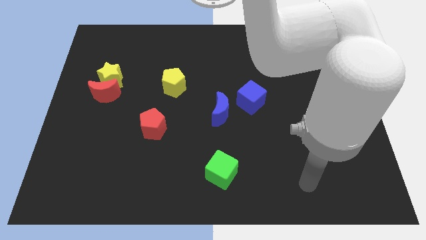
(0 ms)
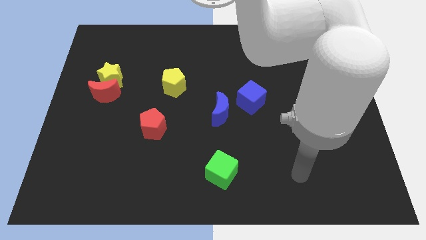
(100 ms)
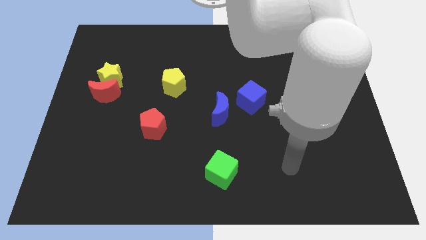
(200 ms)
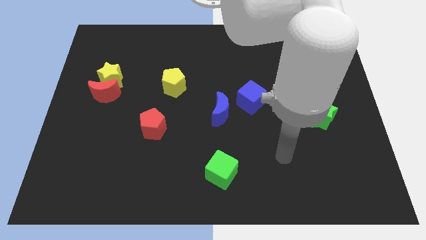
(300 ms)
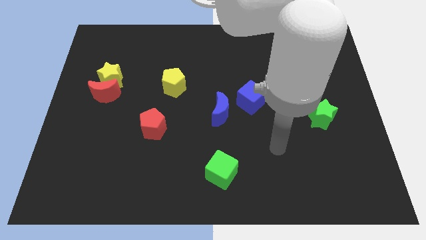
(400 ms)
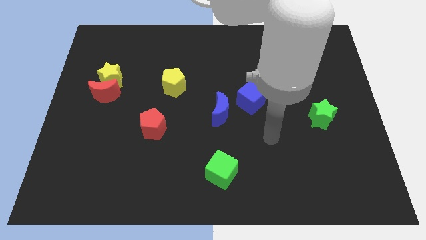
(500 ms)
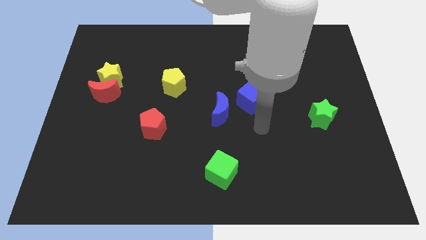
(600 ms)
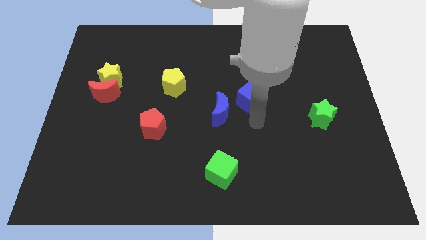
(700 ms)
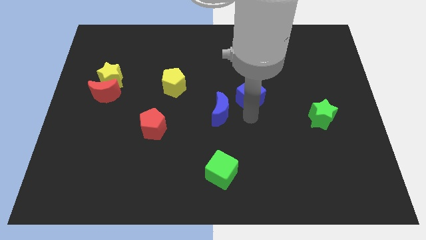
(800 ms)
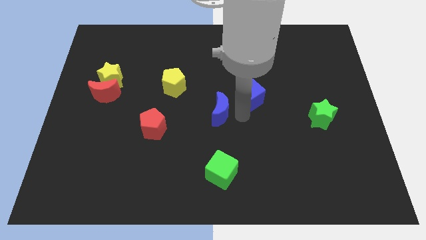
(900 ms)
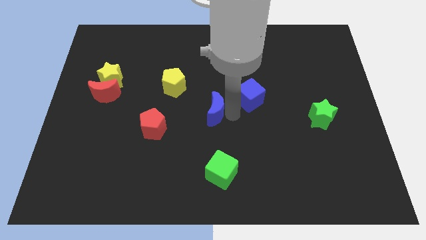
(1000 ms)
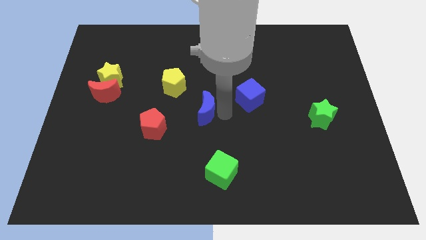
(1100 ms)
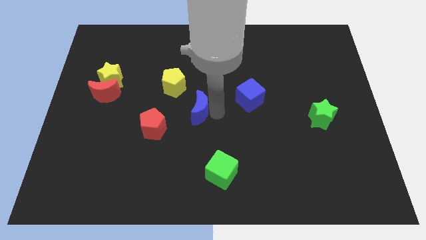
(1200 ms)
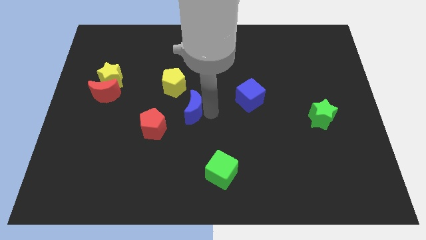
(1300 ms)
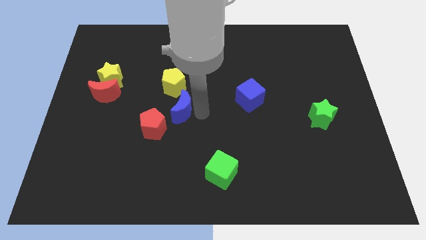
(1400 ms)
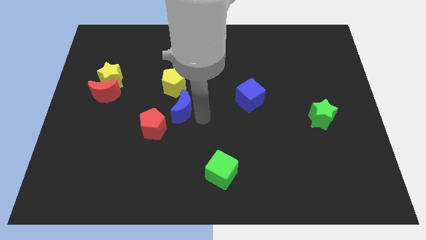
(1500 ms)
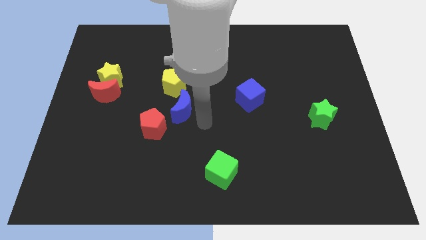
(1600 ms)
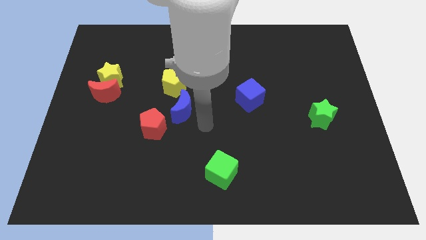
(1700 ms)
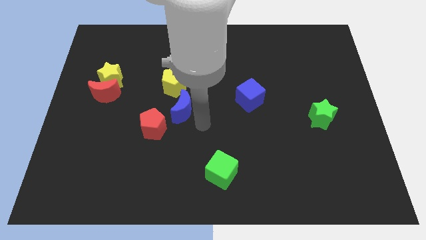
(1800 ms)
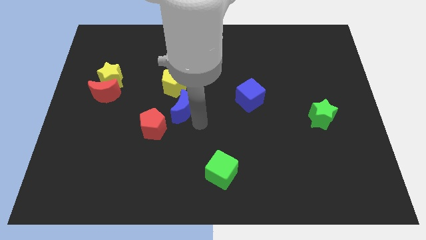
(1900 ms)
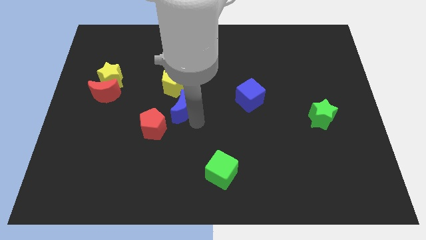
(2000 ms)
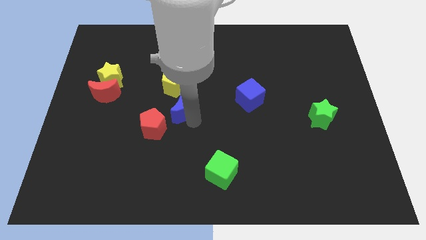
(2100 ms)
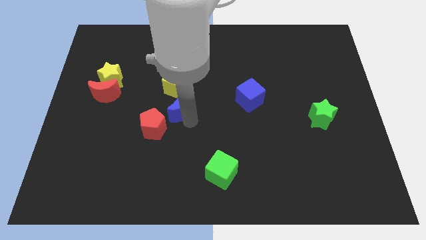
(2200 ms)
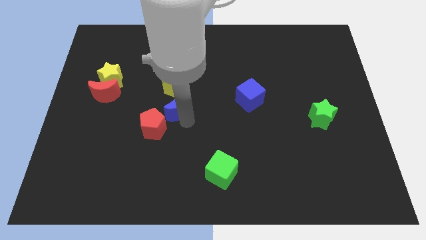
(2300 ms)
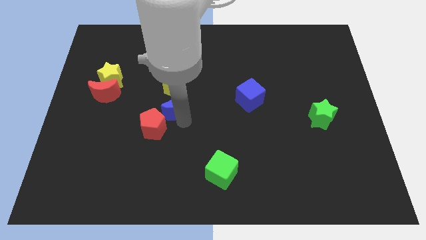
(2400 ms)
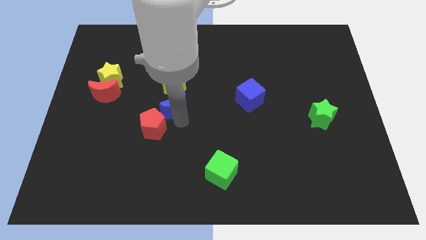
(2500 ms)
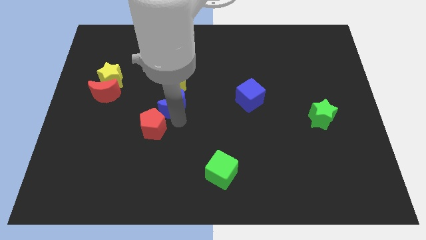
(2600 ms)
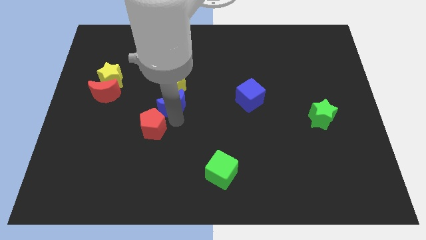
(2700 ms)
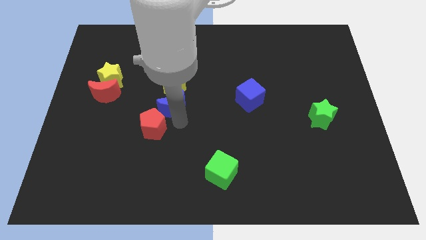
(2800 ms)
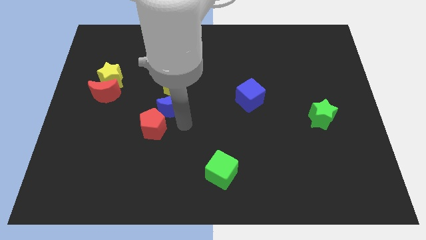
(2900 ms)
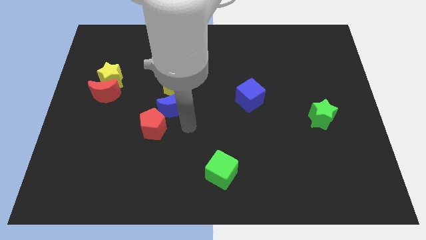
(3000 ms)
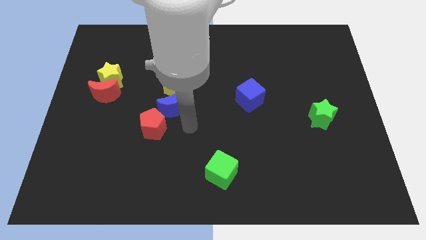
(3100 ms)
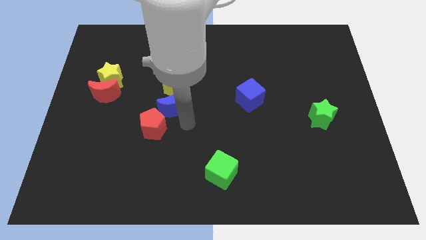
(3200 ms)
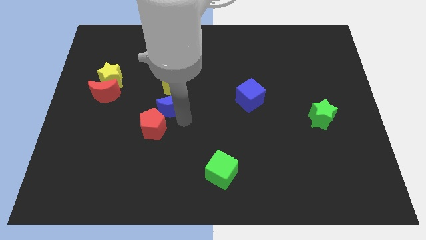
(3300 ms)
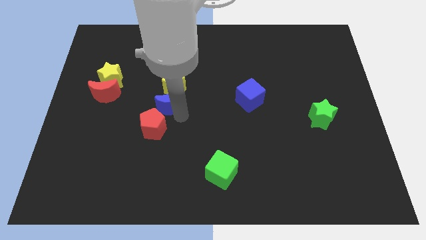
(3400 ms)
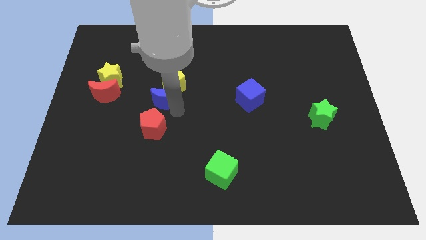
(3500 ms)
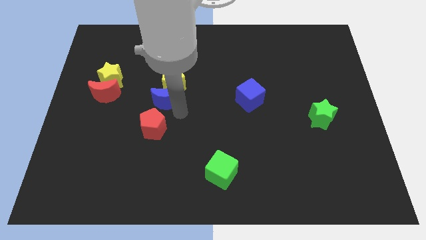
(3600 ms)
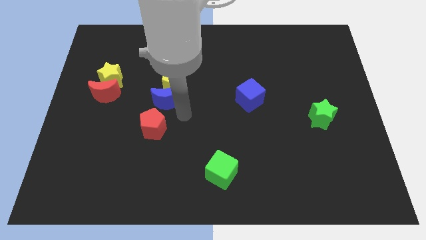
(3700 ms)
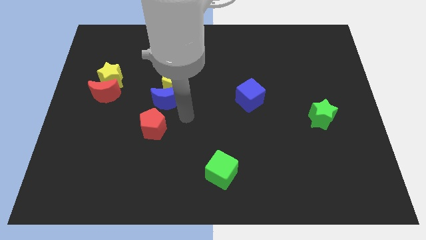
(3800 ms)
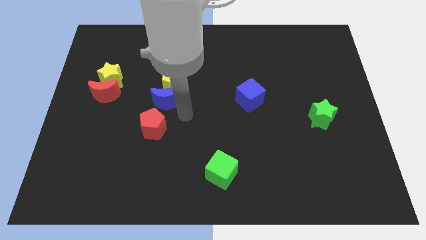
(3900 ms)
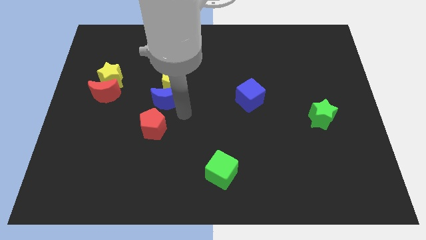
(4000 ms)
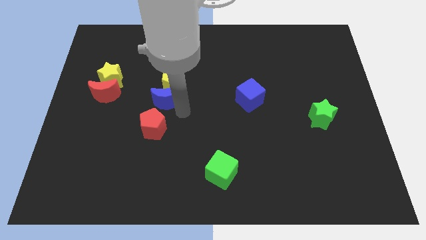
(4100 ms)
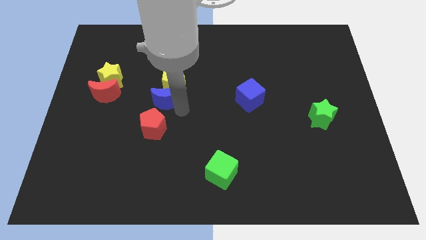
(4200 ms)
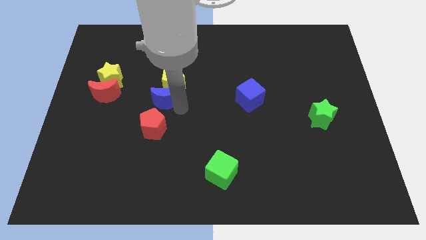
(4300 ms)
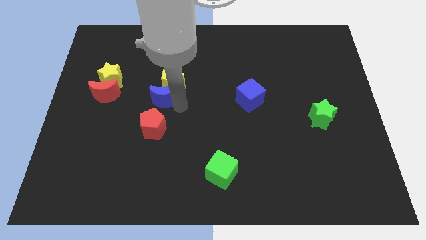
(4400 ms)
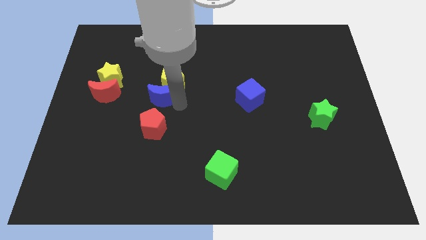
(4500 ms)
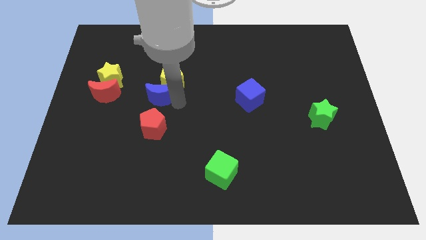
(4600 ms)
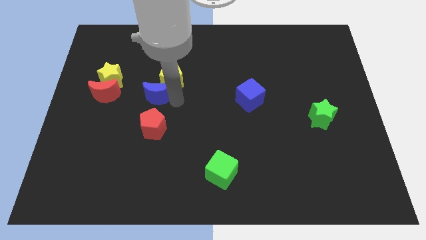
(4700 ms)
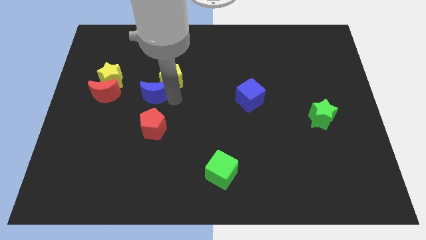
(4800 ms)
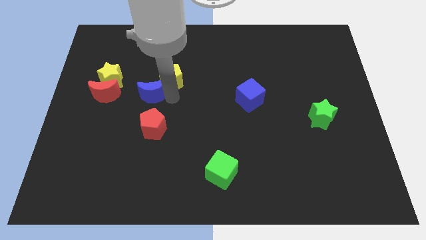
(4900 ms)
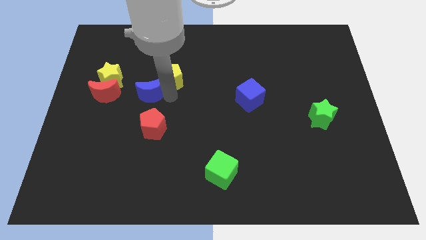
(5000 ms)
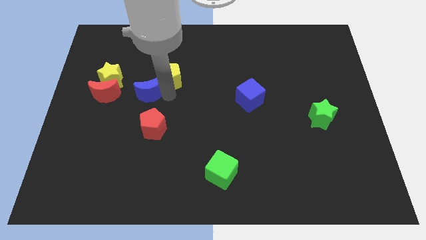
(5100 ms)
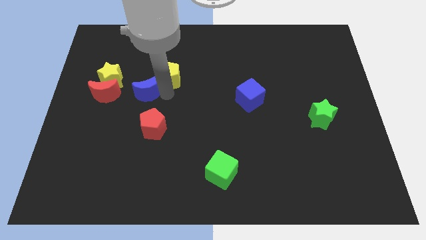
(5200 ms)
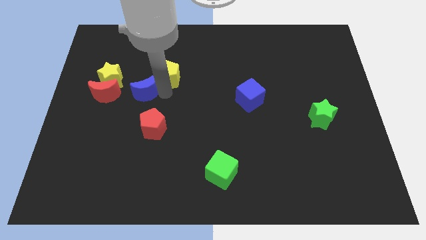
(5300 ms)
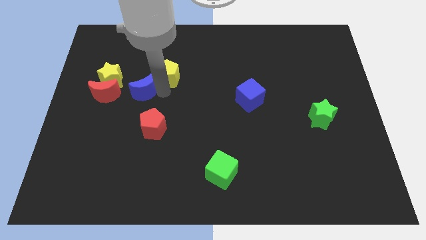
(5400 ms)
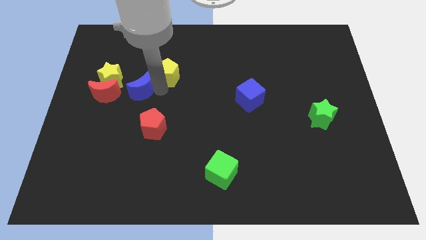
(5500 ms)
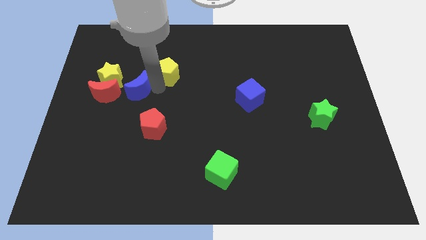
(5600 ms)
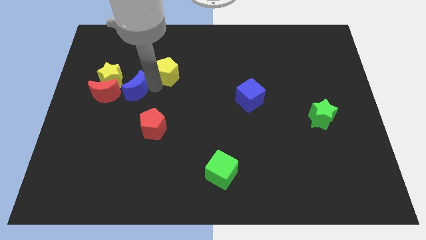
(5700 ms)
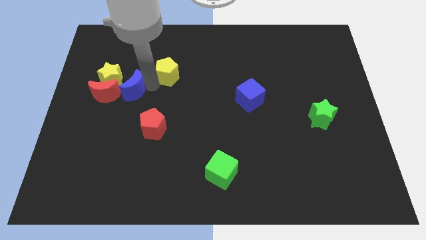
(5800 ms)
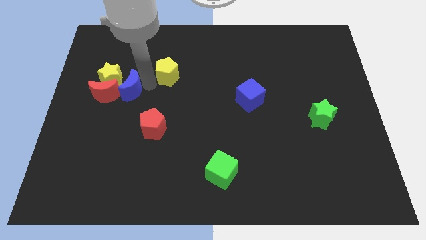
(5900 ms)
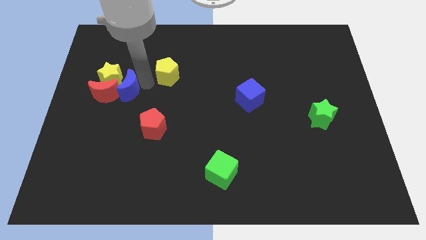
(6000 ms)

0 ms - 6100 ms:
slide the blue moon to the yellow star

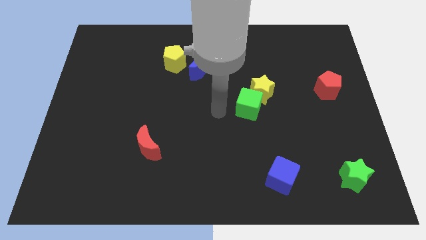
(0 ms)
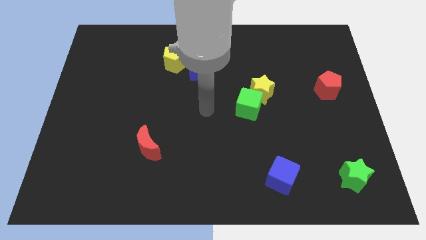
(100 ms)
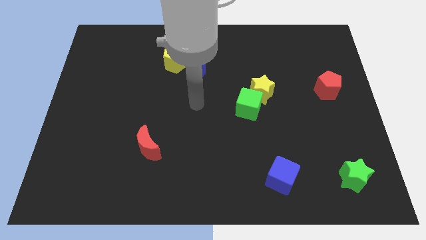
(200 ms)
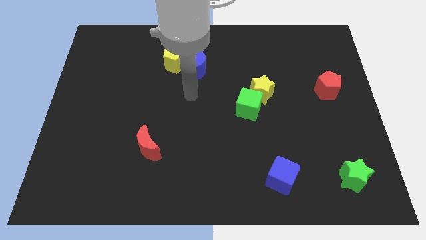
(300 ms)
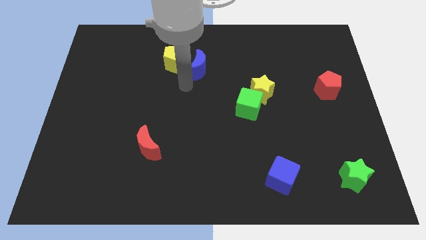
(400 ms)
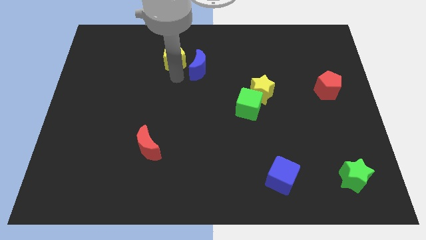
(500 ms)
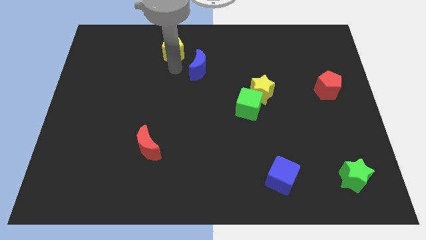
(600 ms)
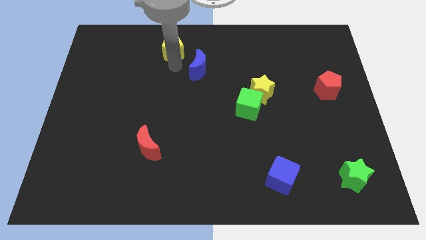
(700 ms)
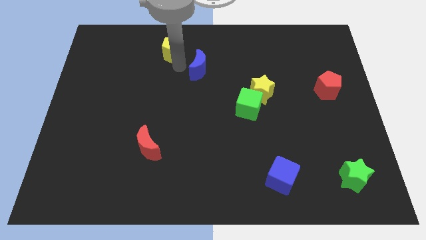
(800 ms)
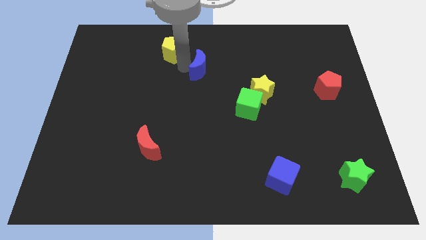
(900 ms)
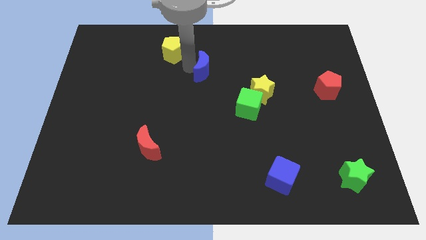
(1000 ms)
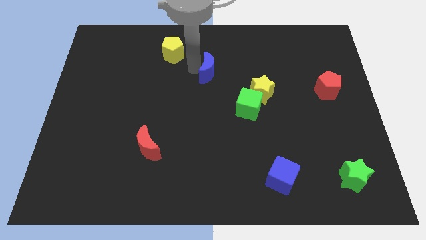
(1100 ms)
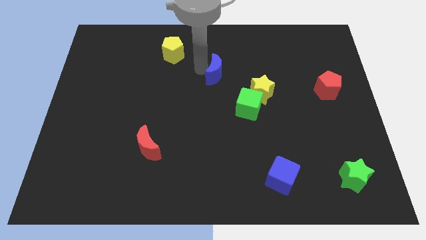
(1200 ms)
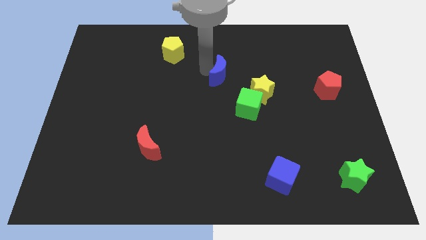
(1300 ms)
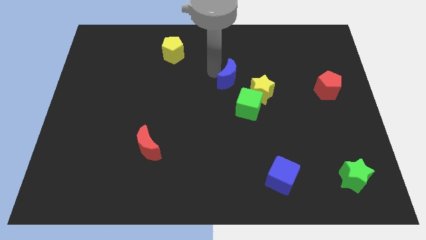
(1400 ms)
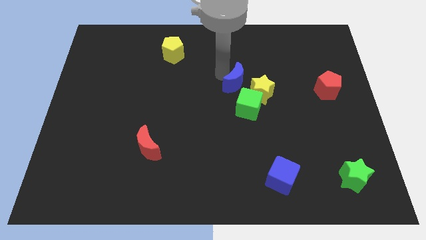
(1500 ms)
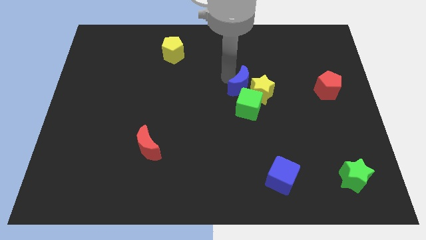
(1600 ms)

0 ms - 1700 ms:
put the blue moon close to the yellow star
